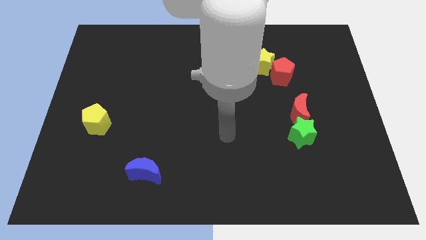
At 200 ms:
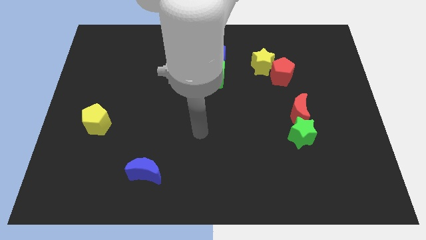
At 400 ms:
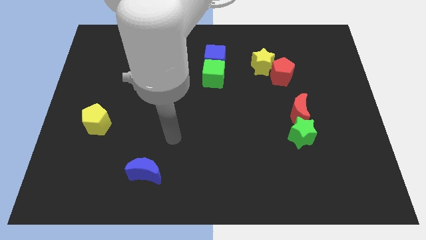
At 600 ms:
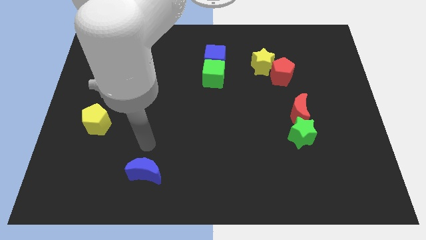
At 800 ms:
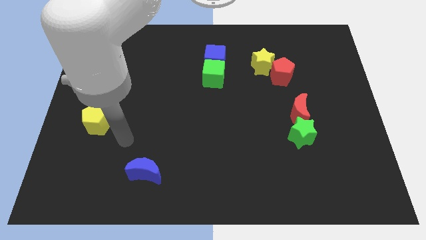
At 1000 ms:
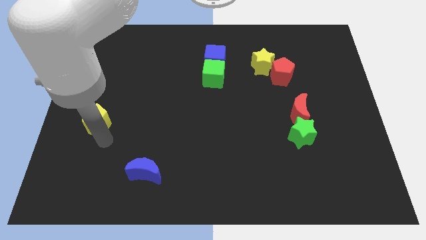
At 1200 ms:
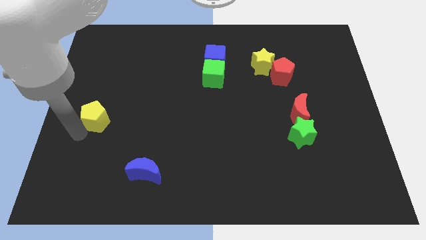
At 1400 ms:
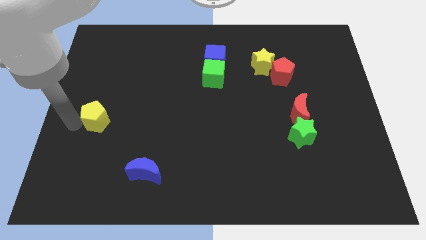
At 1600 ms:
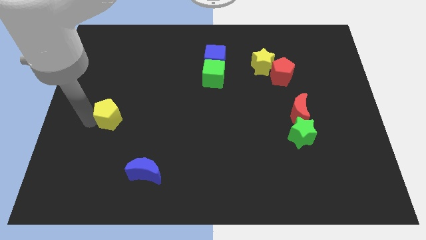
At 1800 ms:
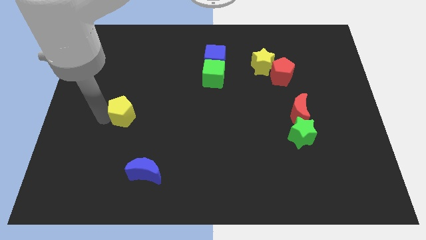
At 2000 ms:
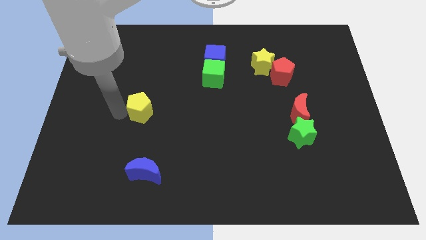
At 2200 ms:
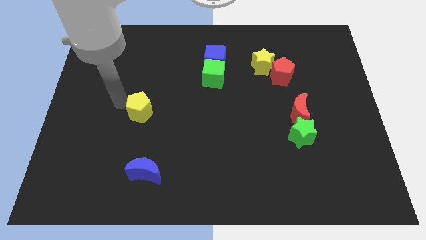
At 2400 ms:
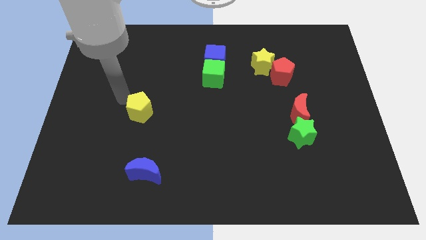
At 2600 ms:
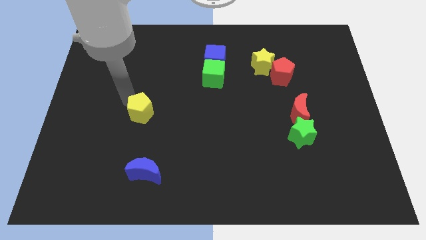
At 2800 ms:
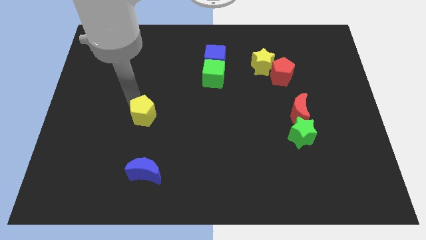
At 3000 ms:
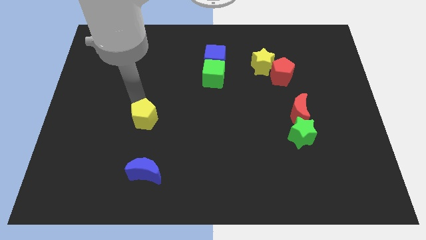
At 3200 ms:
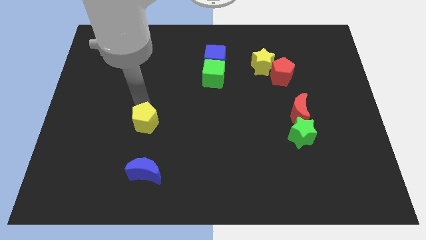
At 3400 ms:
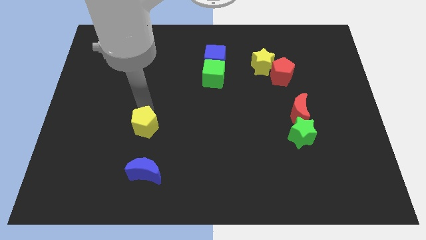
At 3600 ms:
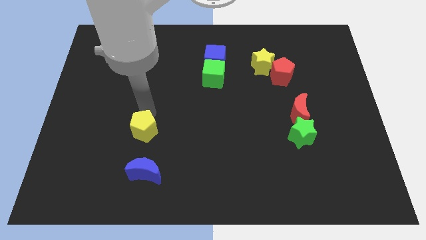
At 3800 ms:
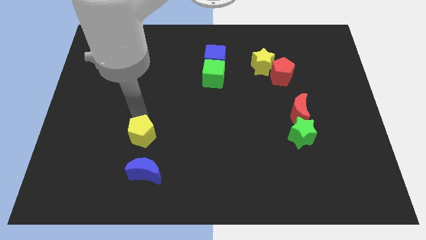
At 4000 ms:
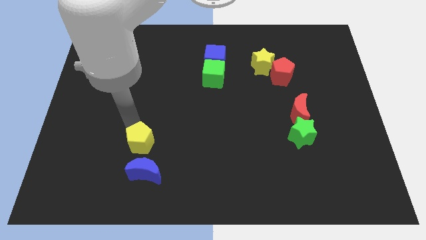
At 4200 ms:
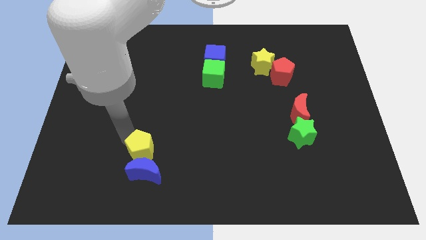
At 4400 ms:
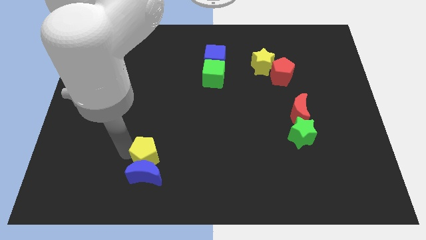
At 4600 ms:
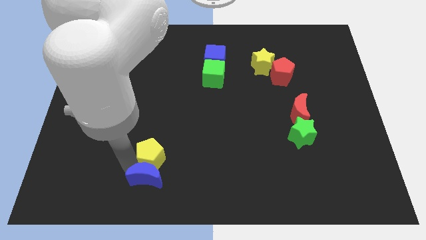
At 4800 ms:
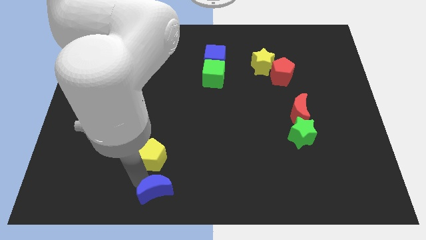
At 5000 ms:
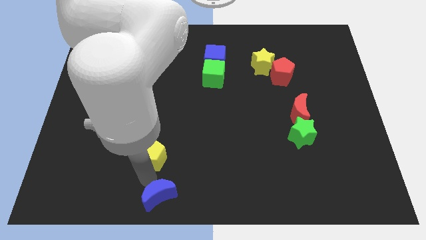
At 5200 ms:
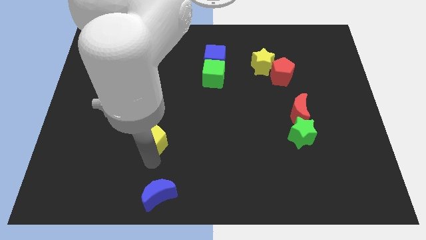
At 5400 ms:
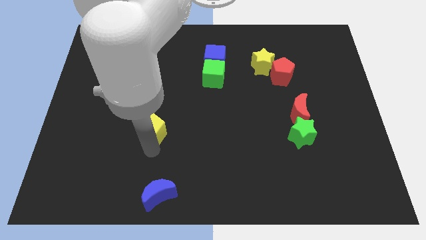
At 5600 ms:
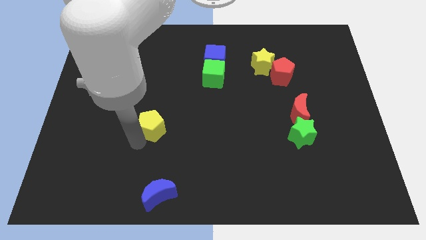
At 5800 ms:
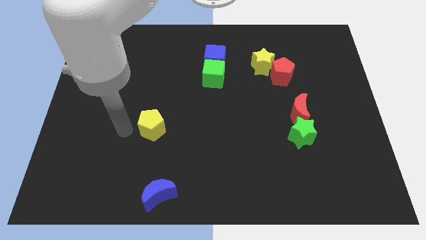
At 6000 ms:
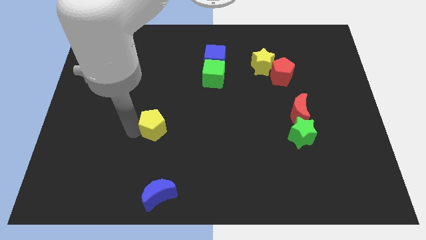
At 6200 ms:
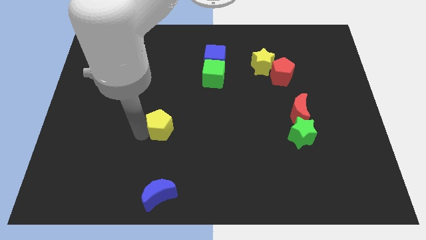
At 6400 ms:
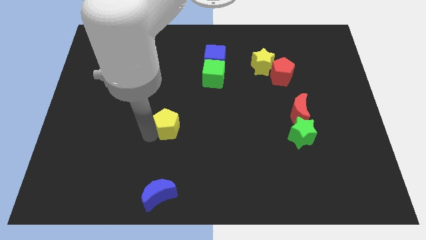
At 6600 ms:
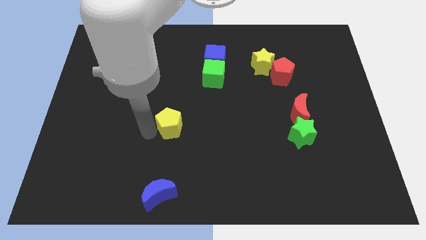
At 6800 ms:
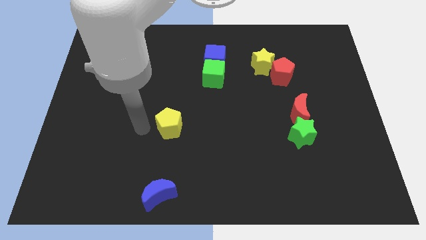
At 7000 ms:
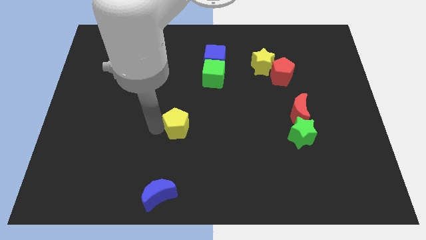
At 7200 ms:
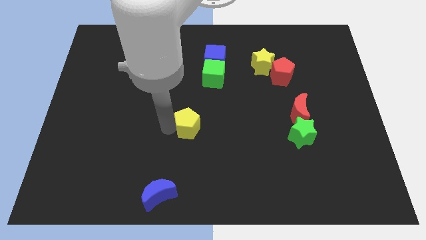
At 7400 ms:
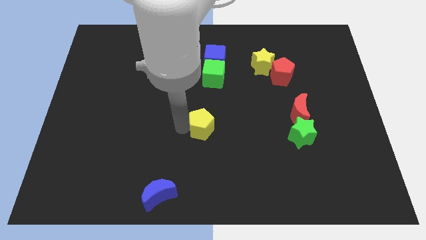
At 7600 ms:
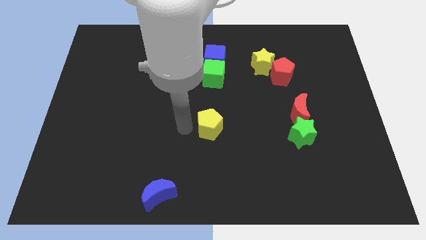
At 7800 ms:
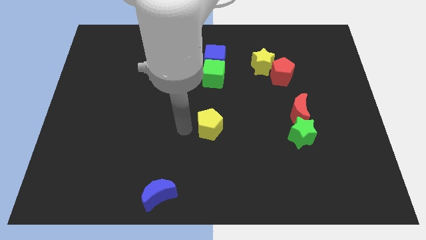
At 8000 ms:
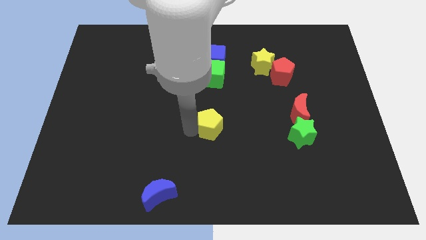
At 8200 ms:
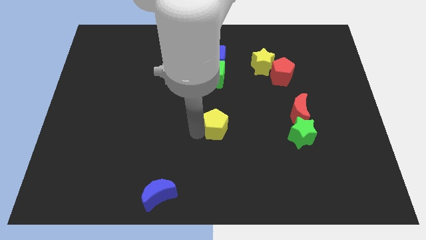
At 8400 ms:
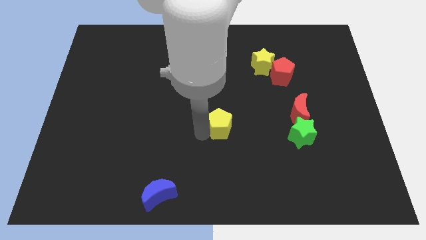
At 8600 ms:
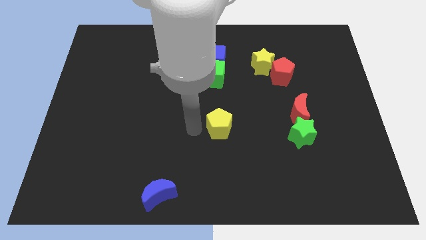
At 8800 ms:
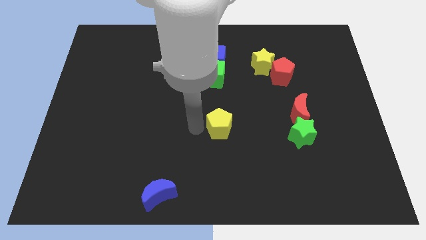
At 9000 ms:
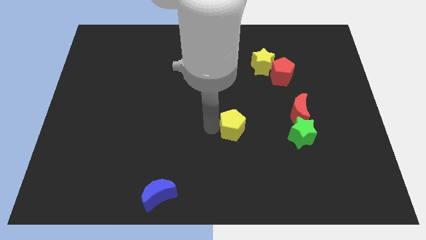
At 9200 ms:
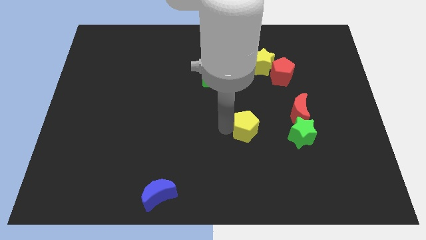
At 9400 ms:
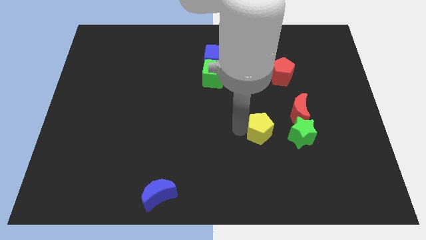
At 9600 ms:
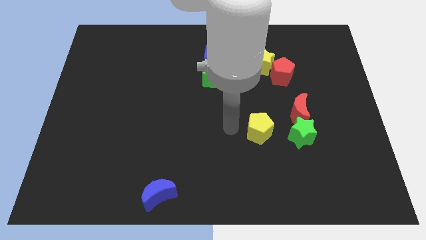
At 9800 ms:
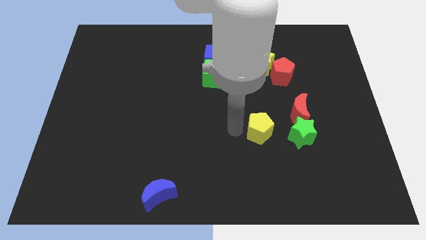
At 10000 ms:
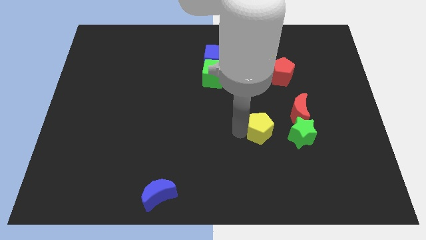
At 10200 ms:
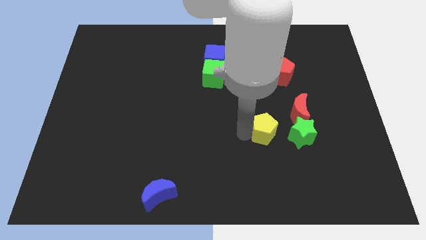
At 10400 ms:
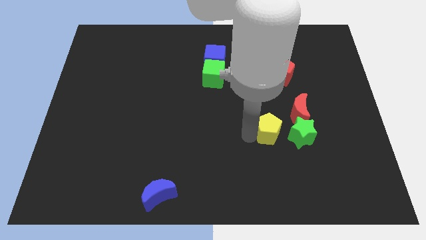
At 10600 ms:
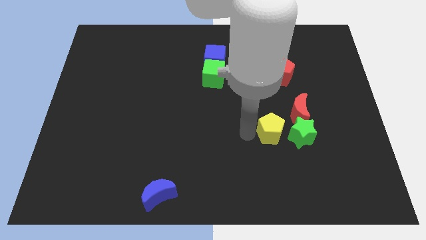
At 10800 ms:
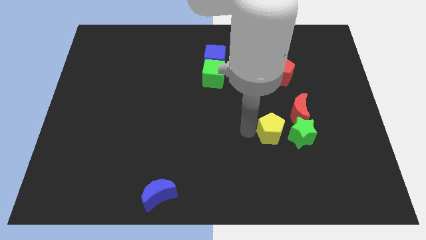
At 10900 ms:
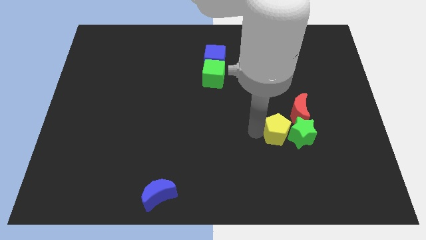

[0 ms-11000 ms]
slide the yellow pentagon close to the green star

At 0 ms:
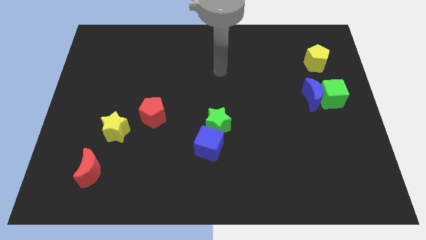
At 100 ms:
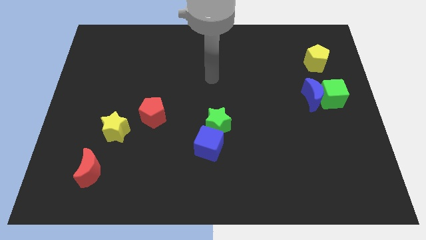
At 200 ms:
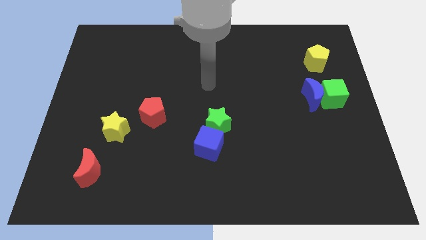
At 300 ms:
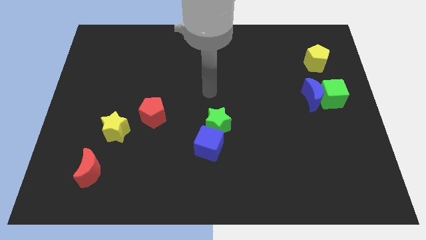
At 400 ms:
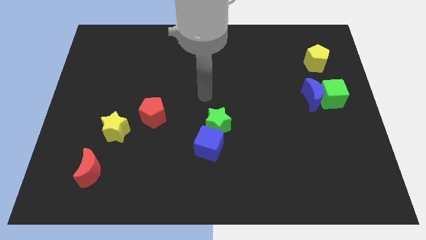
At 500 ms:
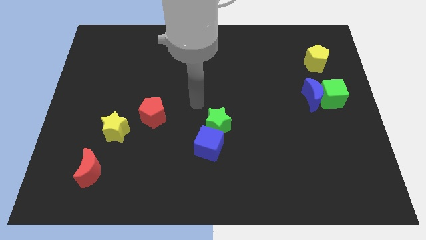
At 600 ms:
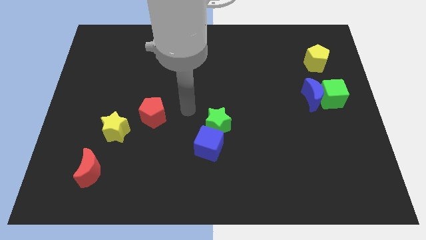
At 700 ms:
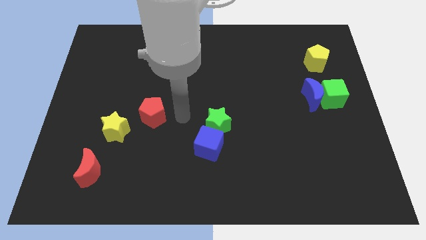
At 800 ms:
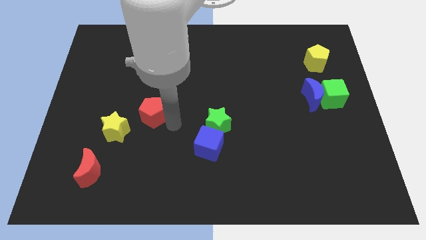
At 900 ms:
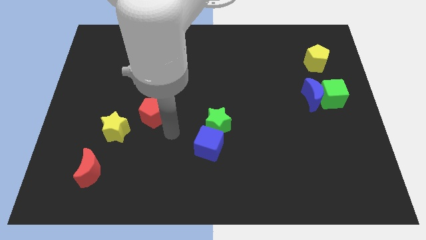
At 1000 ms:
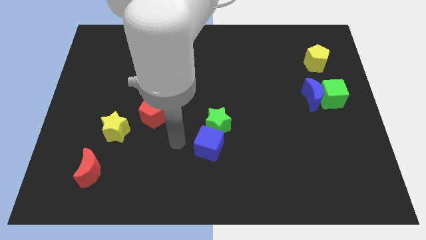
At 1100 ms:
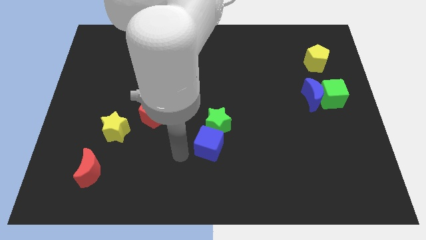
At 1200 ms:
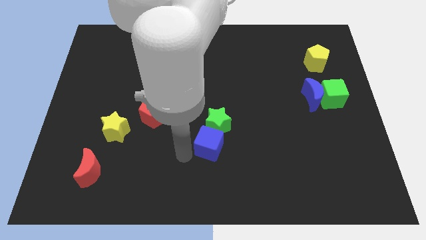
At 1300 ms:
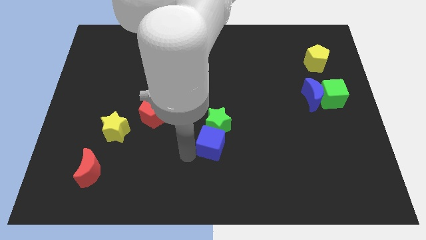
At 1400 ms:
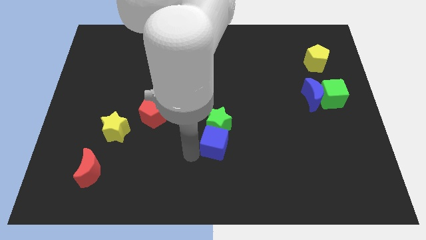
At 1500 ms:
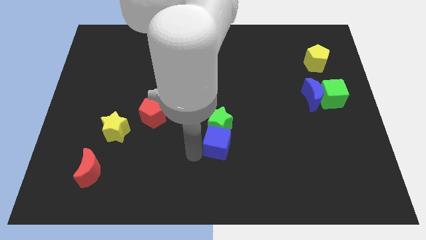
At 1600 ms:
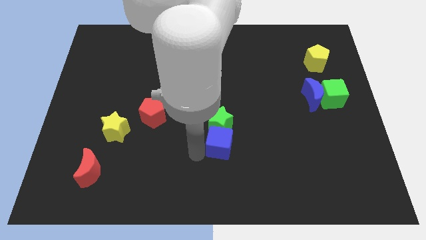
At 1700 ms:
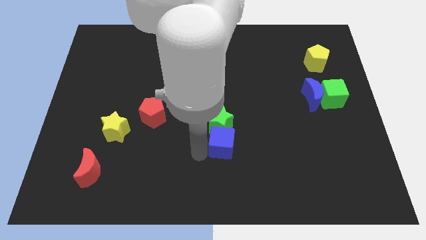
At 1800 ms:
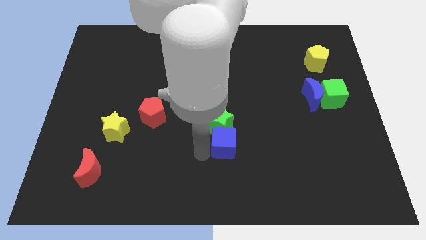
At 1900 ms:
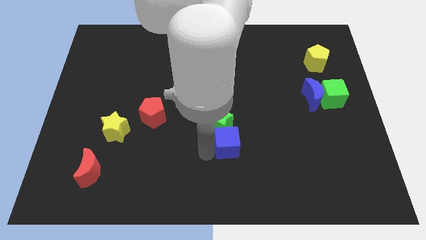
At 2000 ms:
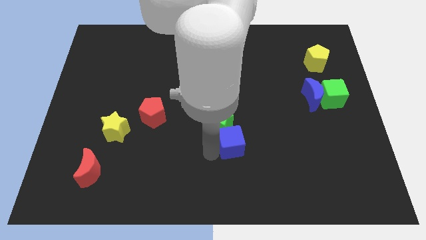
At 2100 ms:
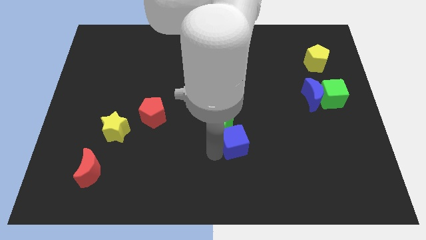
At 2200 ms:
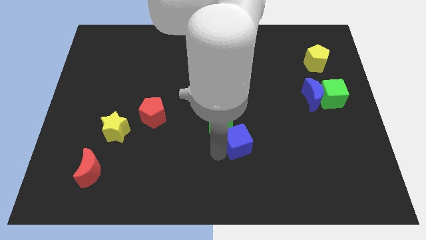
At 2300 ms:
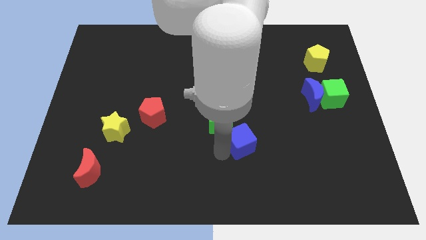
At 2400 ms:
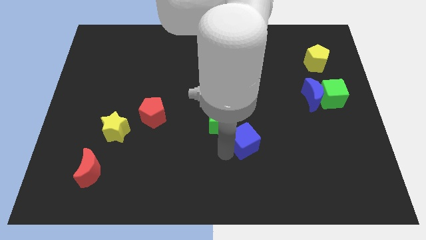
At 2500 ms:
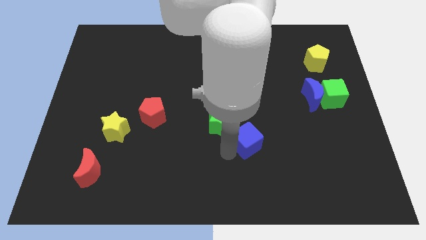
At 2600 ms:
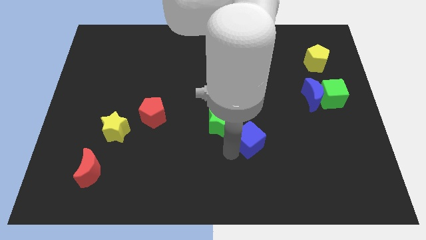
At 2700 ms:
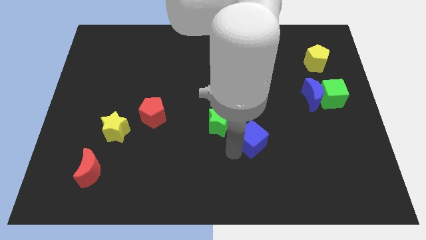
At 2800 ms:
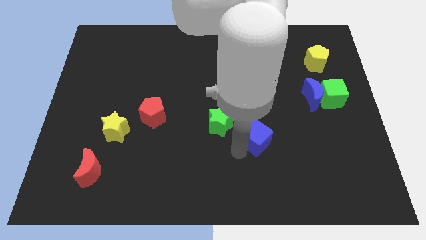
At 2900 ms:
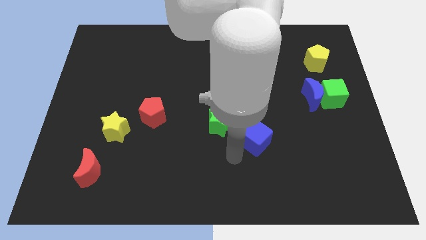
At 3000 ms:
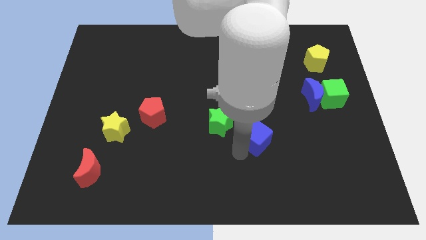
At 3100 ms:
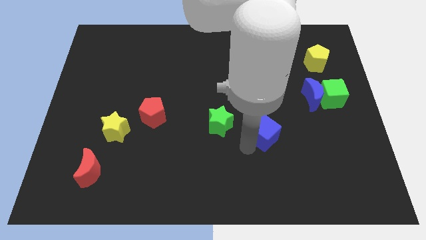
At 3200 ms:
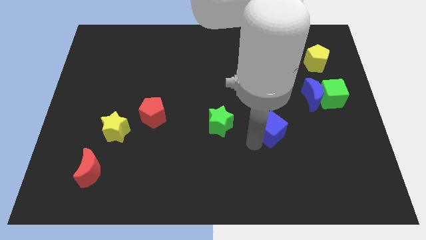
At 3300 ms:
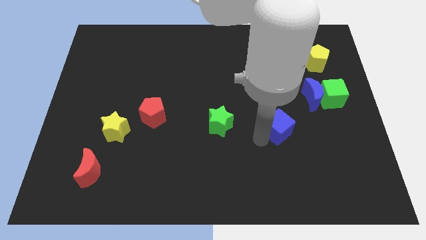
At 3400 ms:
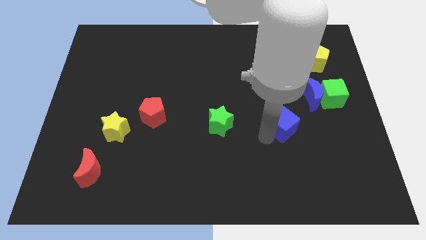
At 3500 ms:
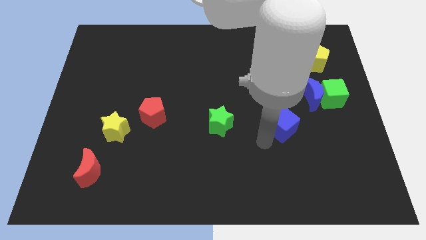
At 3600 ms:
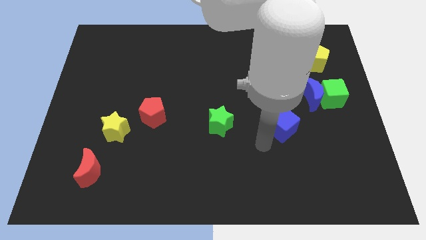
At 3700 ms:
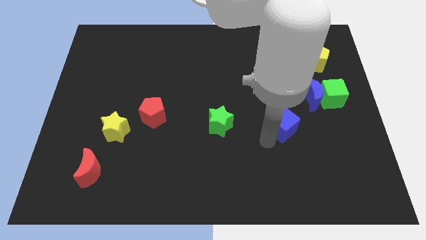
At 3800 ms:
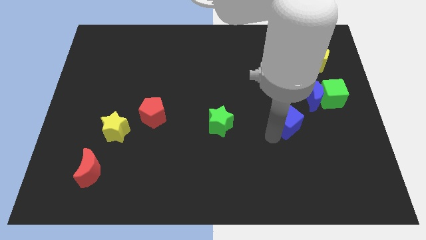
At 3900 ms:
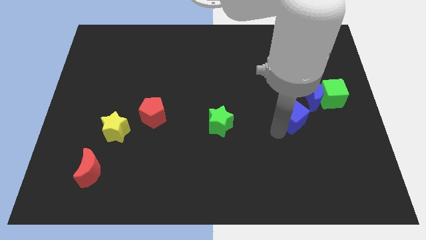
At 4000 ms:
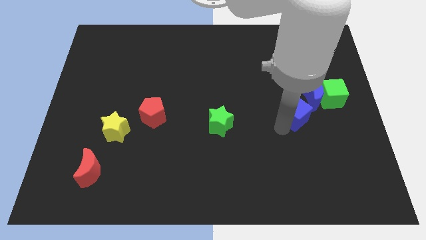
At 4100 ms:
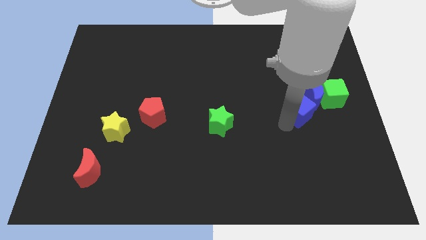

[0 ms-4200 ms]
slide the blue cube to the blue moon
